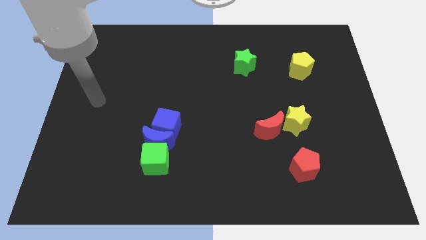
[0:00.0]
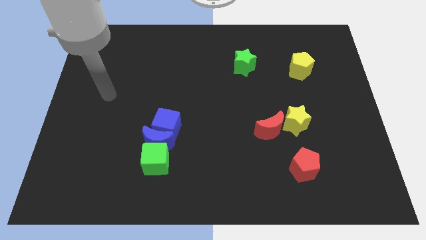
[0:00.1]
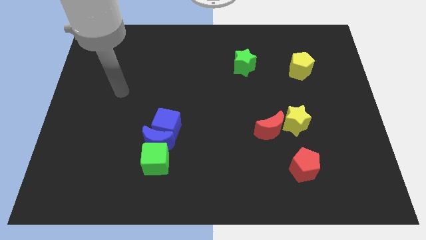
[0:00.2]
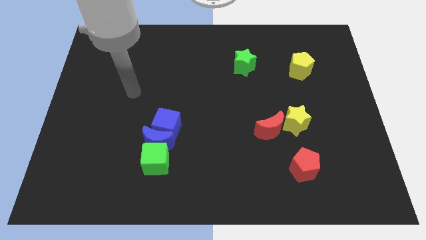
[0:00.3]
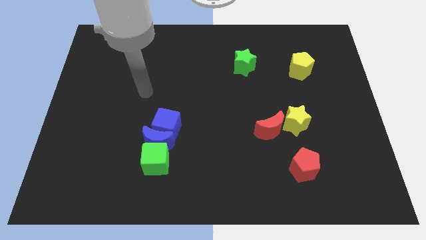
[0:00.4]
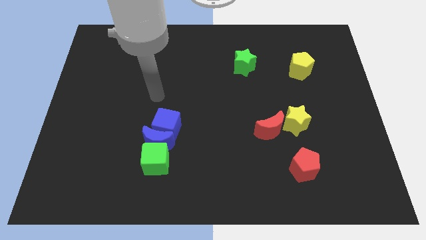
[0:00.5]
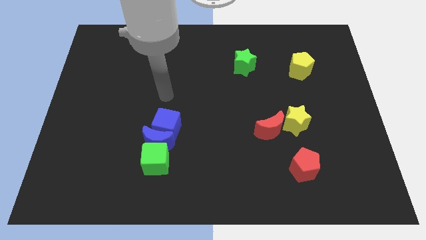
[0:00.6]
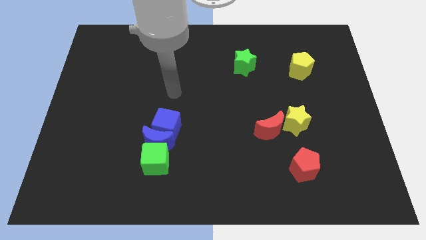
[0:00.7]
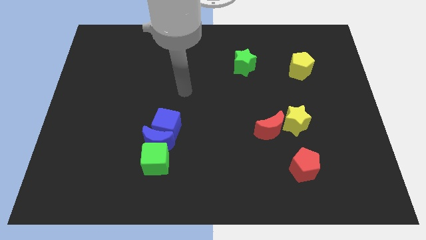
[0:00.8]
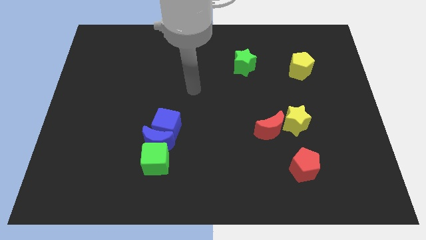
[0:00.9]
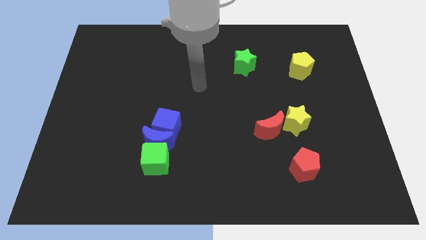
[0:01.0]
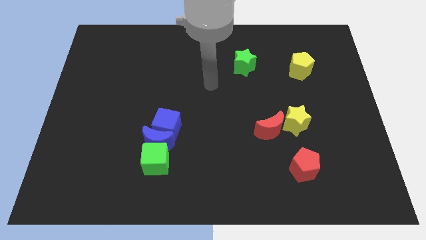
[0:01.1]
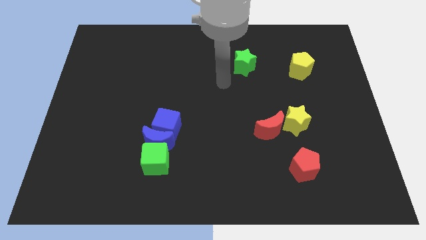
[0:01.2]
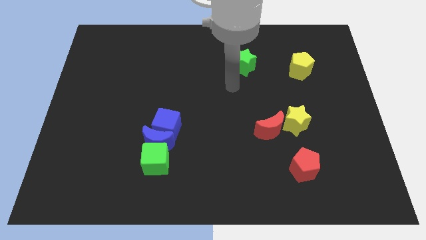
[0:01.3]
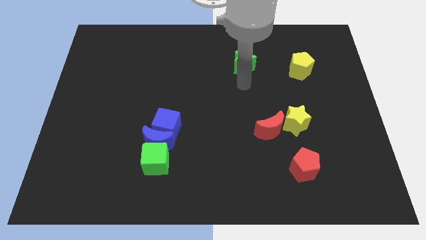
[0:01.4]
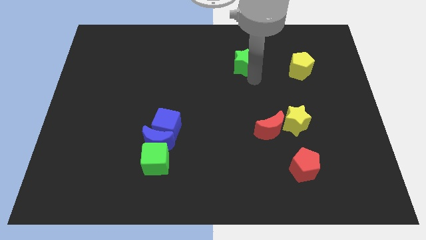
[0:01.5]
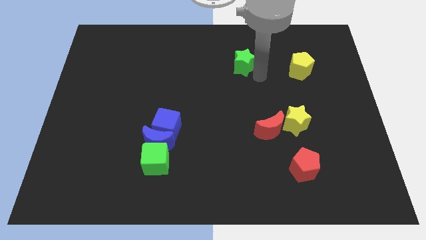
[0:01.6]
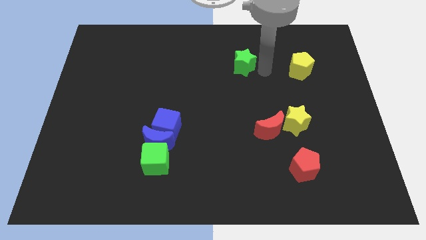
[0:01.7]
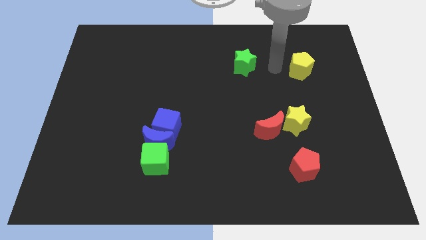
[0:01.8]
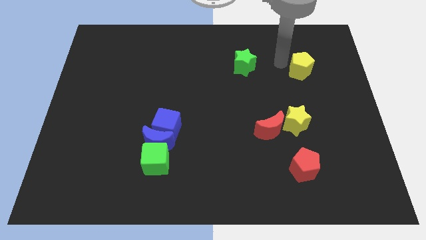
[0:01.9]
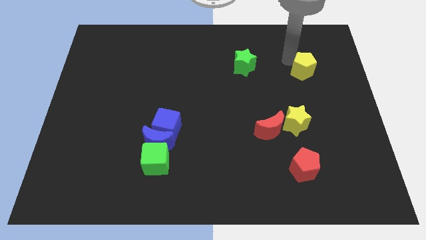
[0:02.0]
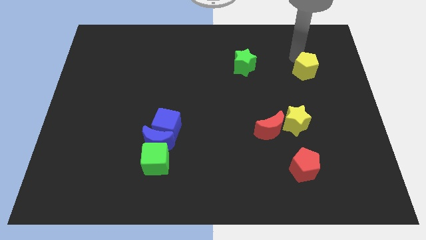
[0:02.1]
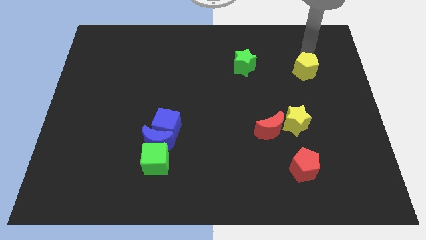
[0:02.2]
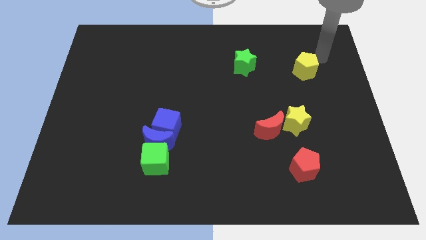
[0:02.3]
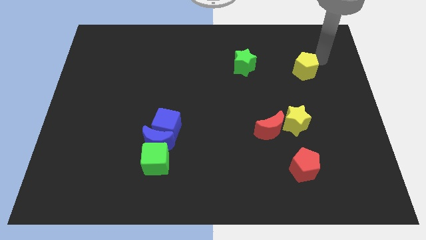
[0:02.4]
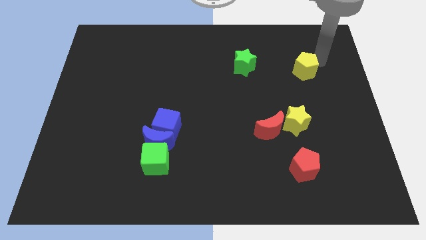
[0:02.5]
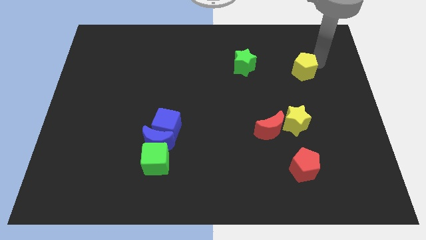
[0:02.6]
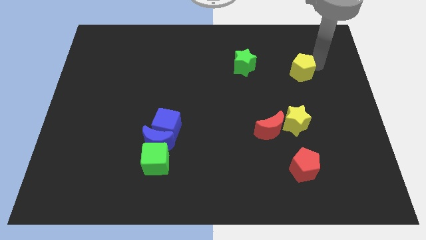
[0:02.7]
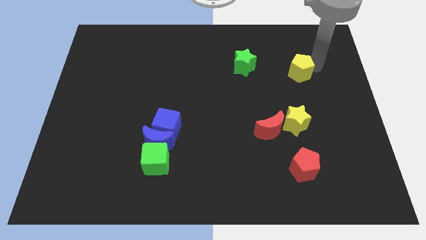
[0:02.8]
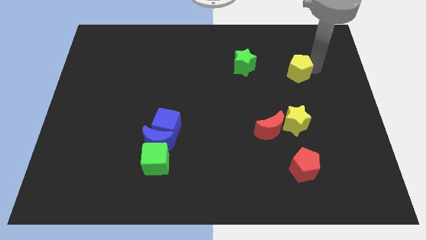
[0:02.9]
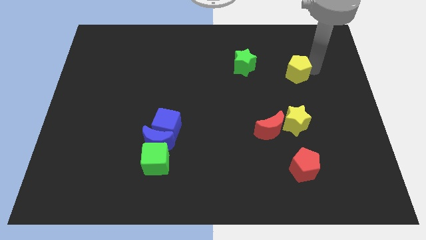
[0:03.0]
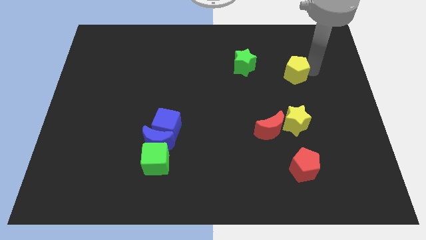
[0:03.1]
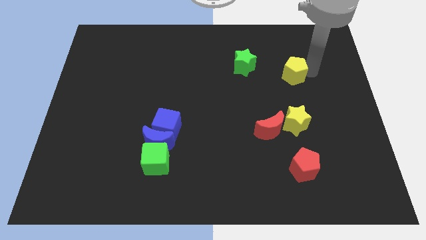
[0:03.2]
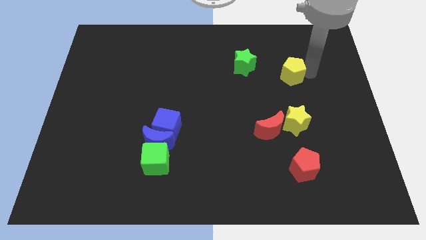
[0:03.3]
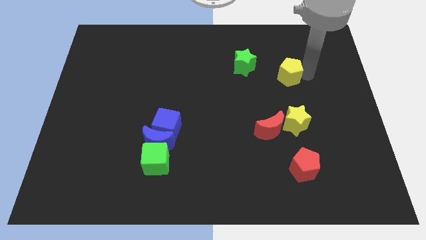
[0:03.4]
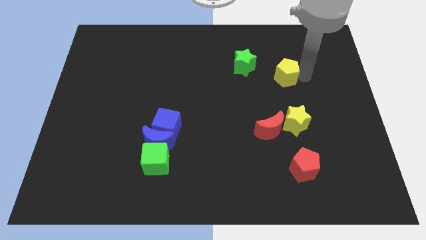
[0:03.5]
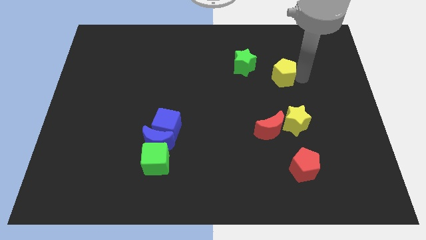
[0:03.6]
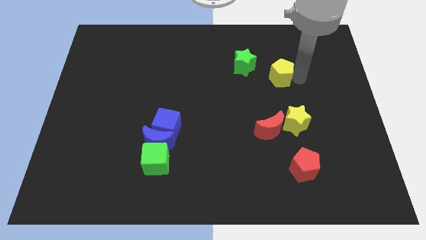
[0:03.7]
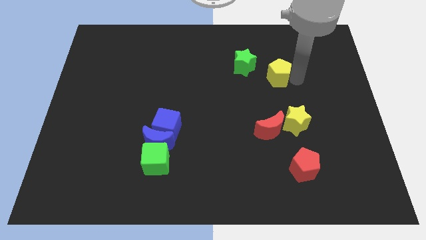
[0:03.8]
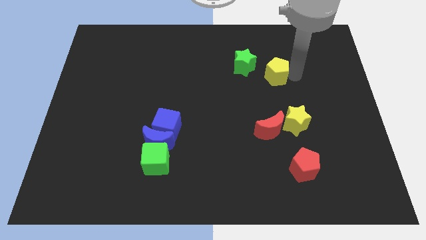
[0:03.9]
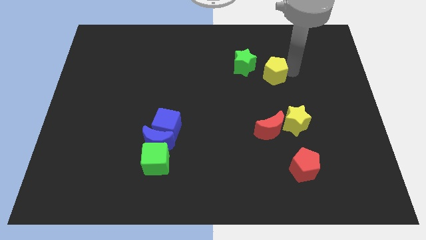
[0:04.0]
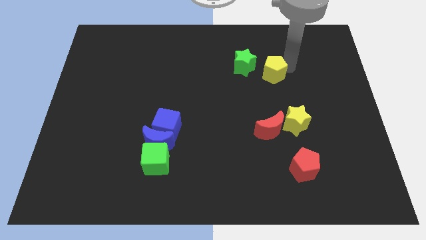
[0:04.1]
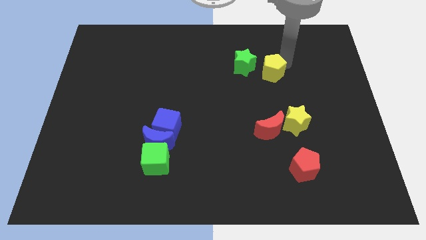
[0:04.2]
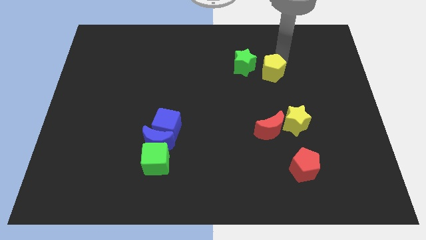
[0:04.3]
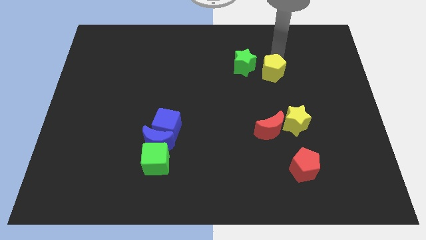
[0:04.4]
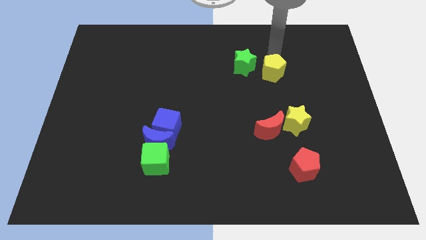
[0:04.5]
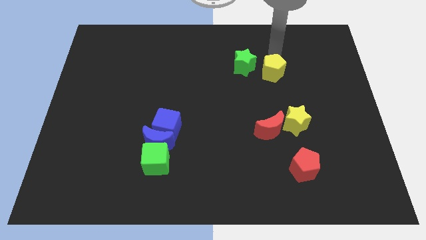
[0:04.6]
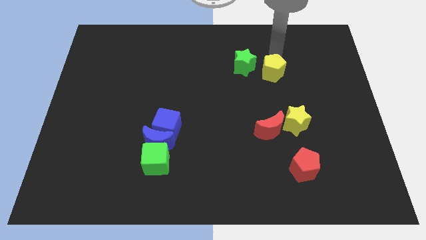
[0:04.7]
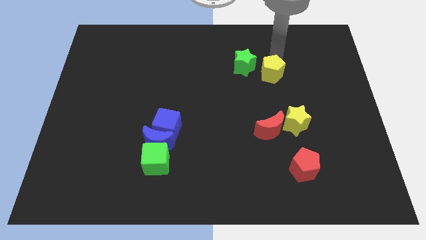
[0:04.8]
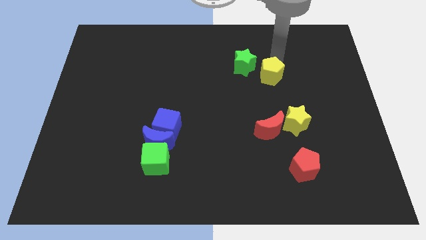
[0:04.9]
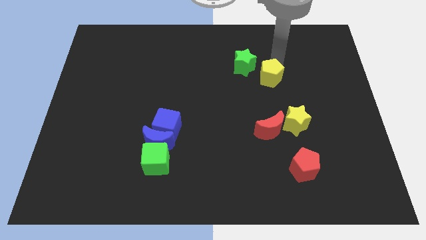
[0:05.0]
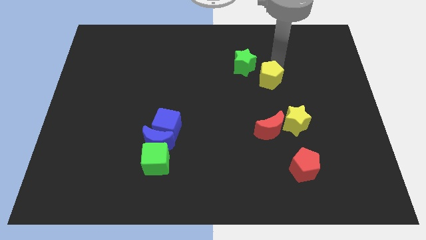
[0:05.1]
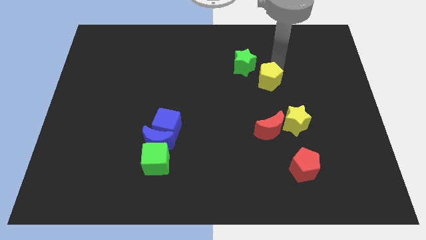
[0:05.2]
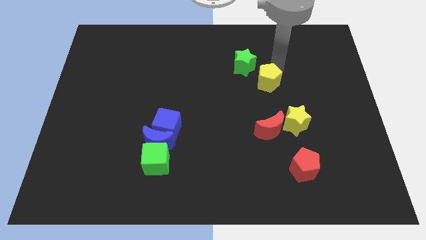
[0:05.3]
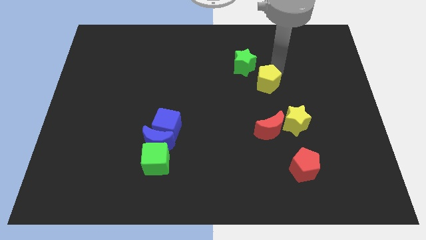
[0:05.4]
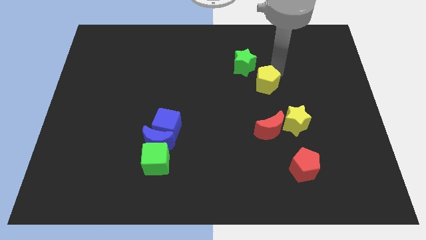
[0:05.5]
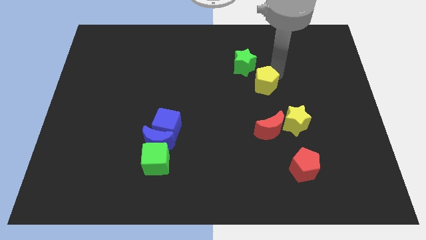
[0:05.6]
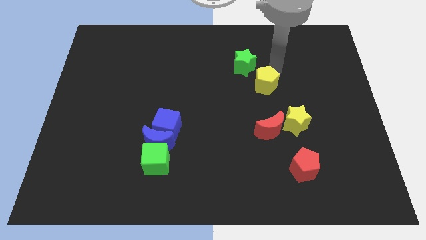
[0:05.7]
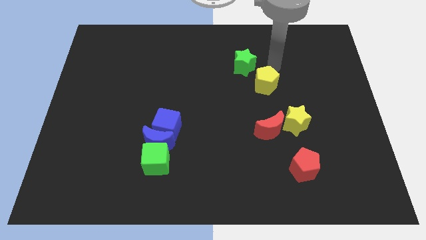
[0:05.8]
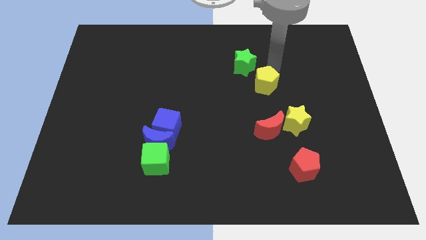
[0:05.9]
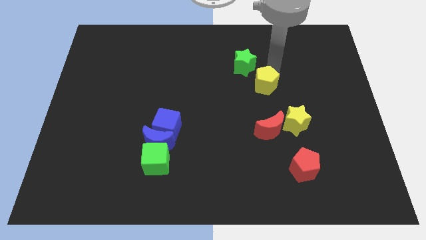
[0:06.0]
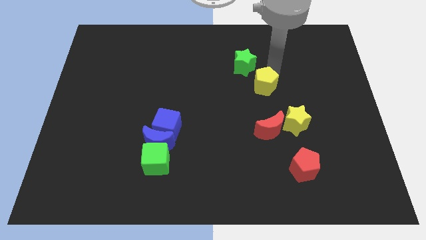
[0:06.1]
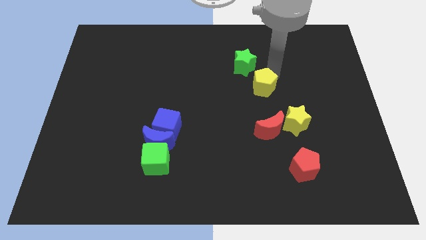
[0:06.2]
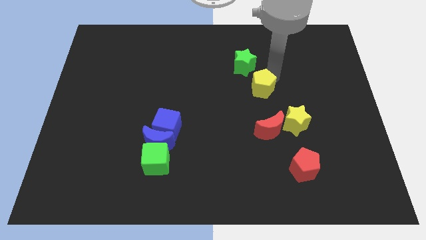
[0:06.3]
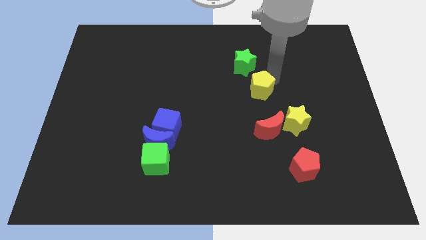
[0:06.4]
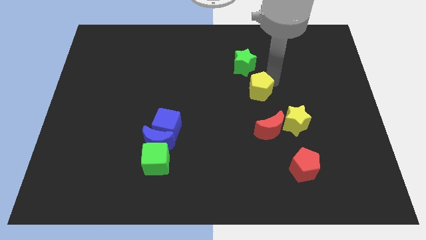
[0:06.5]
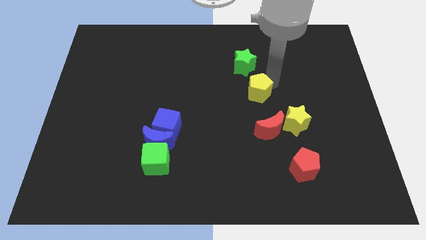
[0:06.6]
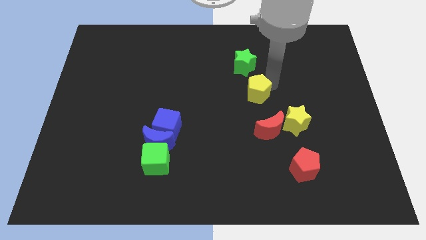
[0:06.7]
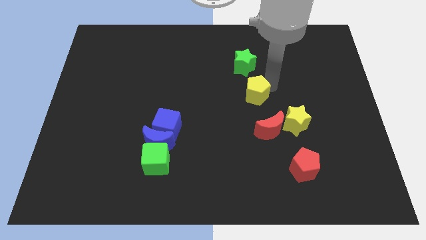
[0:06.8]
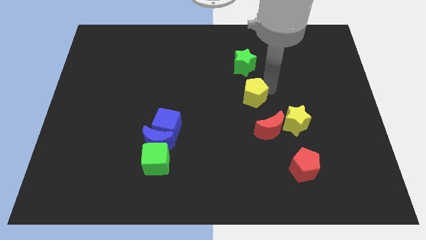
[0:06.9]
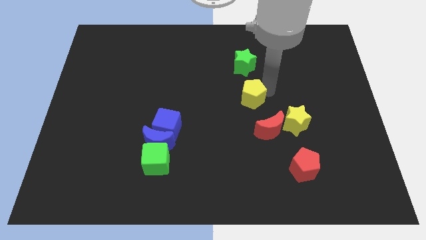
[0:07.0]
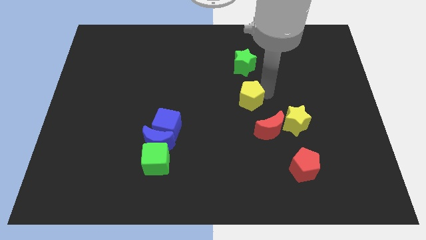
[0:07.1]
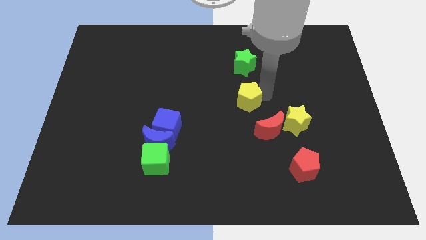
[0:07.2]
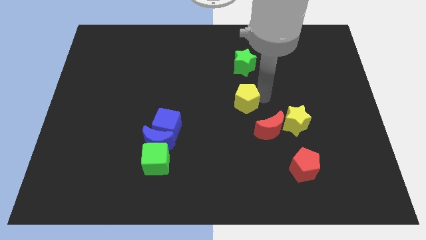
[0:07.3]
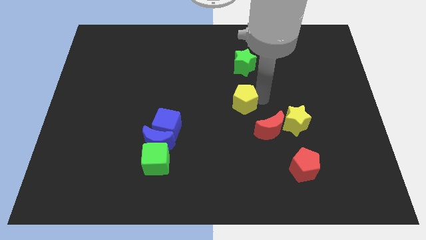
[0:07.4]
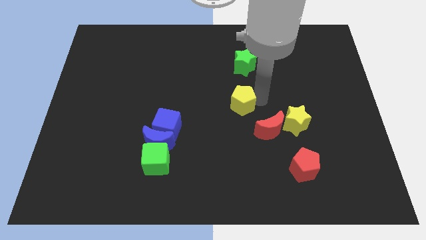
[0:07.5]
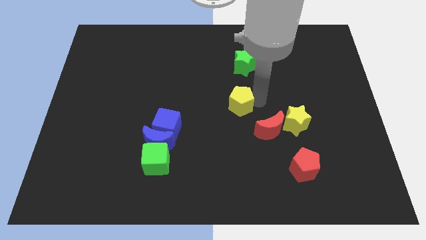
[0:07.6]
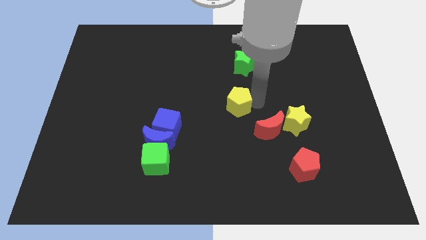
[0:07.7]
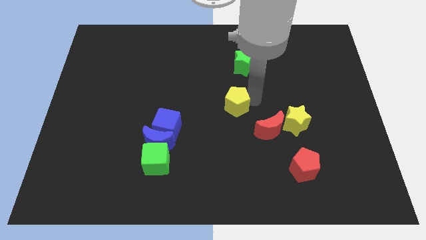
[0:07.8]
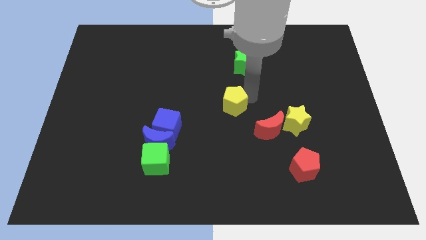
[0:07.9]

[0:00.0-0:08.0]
push the yellow pentagon downwards and then to the left
